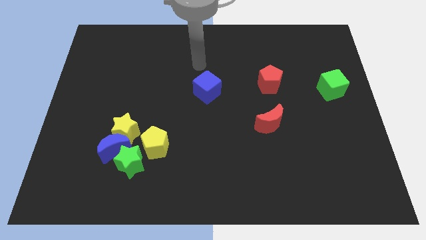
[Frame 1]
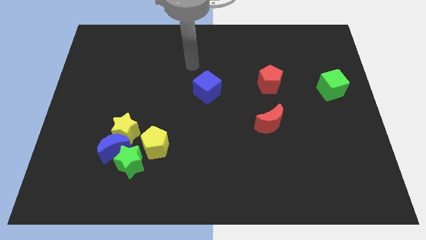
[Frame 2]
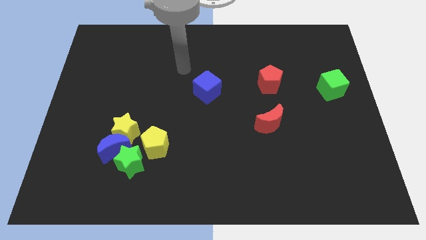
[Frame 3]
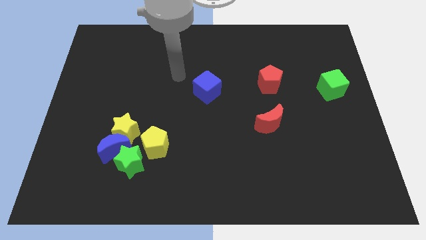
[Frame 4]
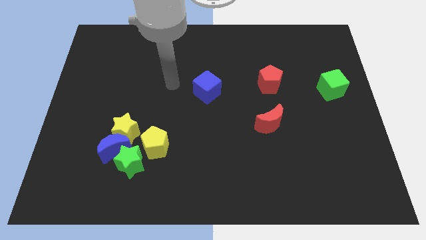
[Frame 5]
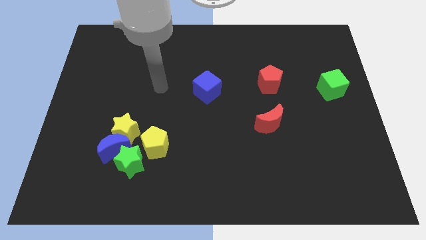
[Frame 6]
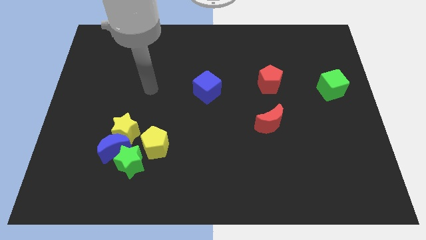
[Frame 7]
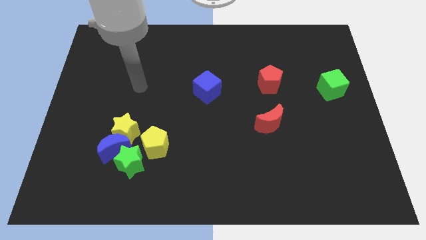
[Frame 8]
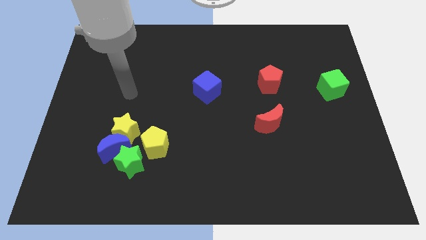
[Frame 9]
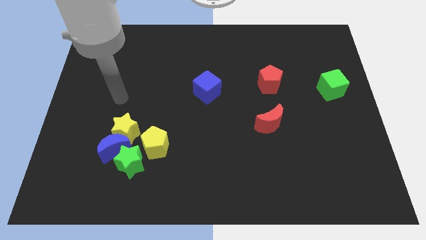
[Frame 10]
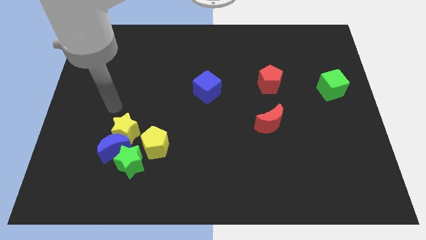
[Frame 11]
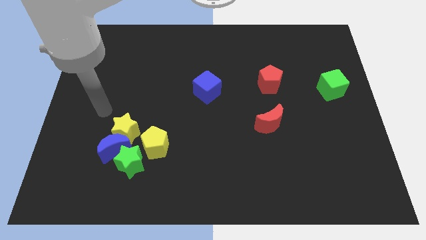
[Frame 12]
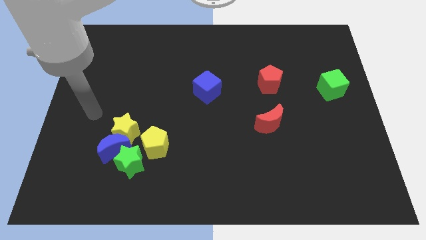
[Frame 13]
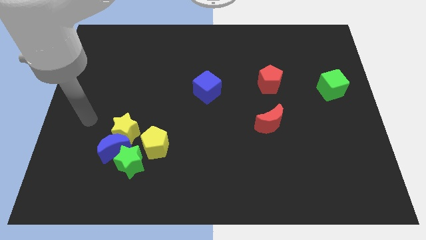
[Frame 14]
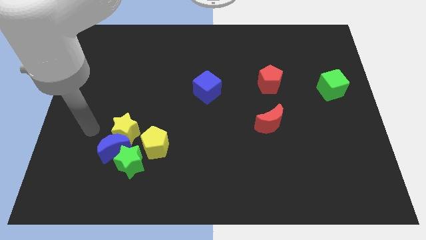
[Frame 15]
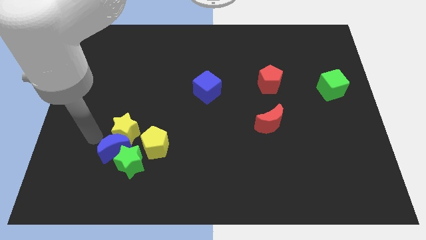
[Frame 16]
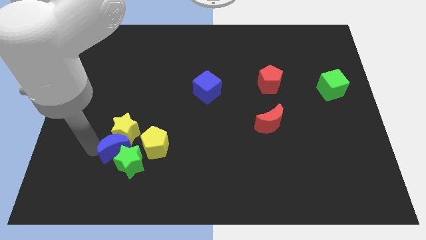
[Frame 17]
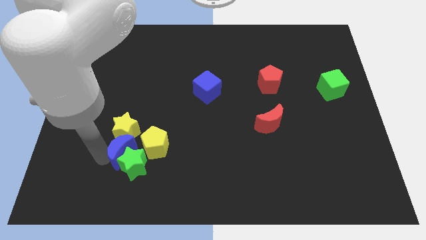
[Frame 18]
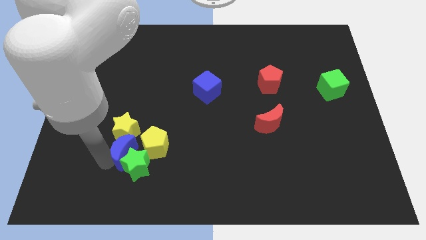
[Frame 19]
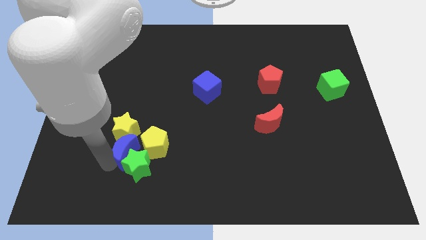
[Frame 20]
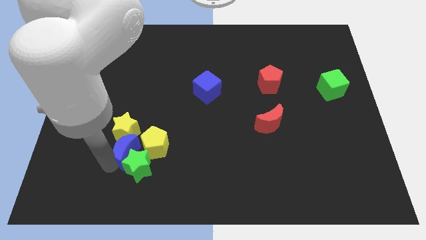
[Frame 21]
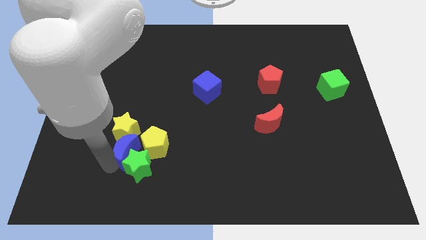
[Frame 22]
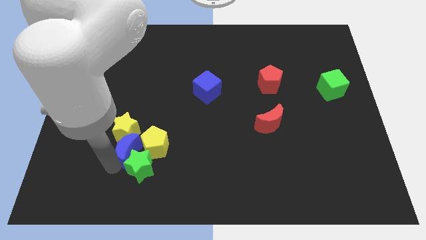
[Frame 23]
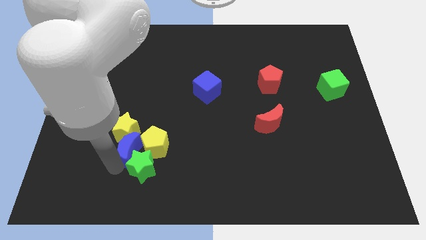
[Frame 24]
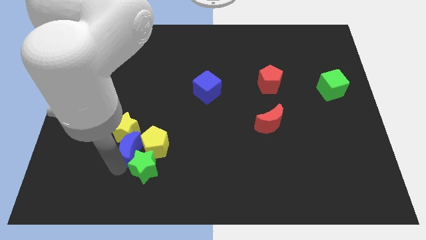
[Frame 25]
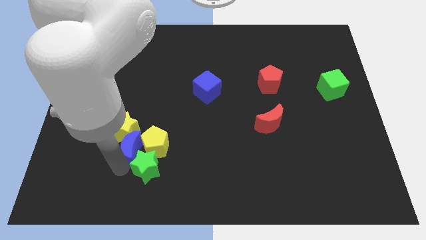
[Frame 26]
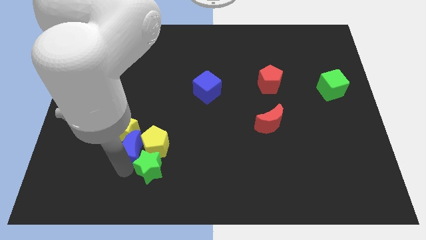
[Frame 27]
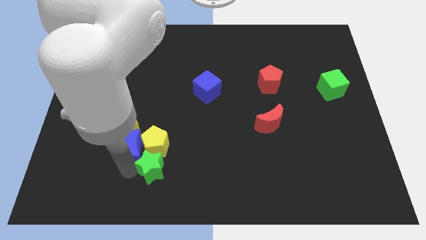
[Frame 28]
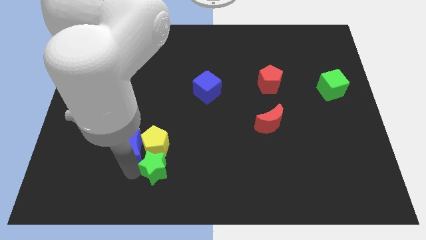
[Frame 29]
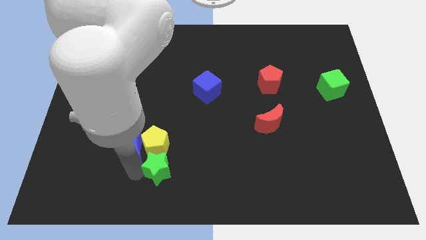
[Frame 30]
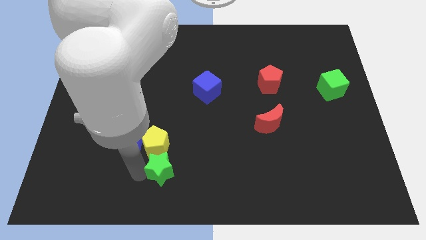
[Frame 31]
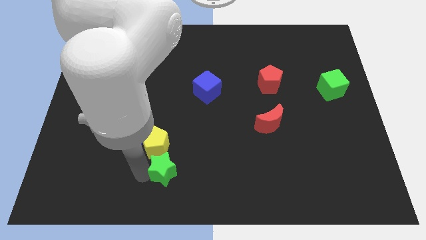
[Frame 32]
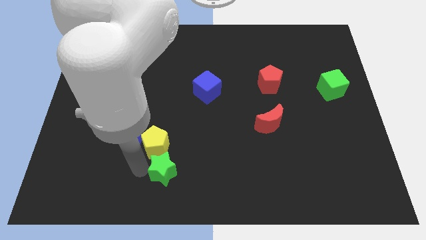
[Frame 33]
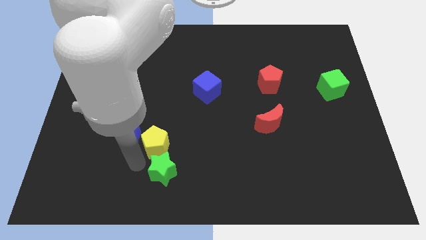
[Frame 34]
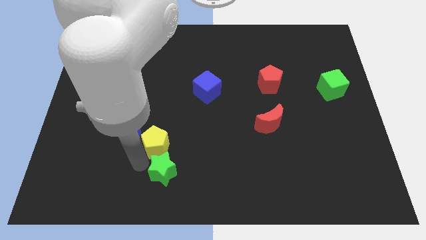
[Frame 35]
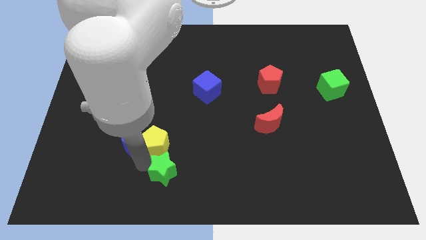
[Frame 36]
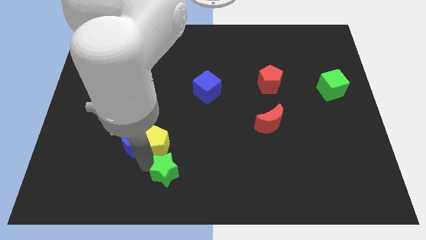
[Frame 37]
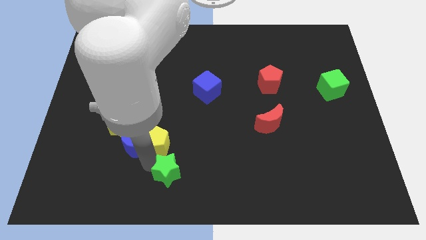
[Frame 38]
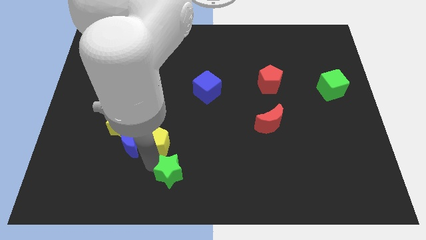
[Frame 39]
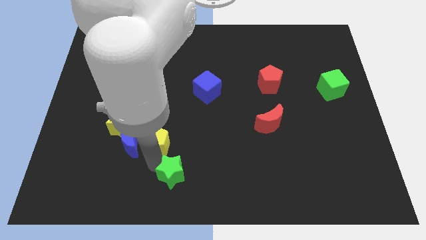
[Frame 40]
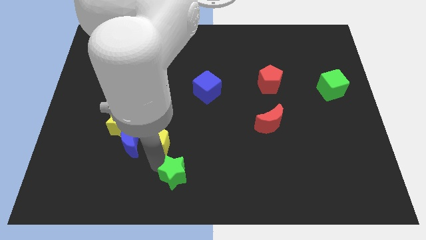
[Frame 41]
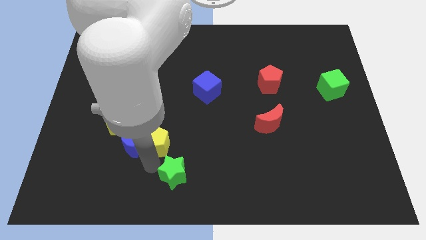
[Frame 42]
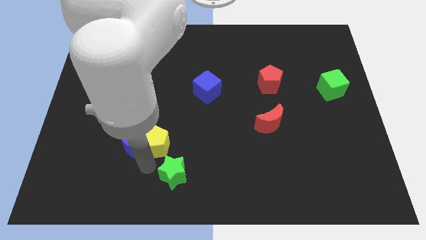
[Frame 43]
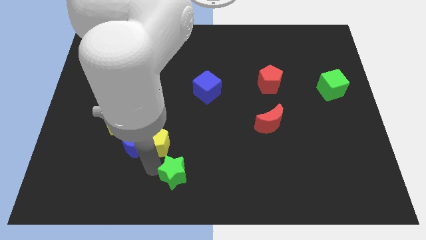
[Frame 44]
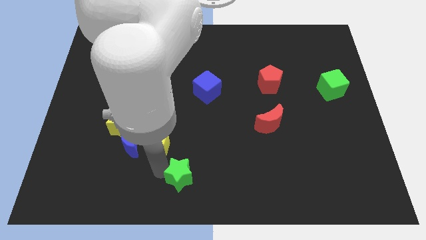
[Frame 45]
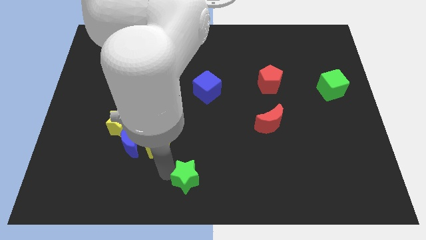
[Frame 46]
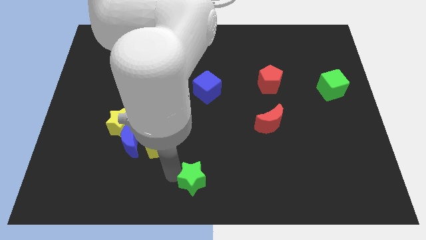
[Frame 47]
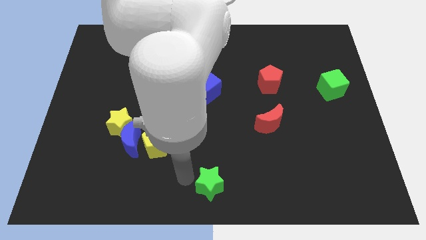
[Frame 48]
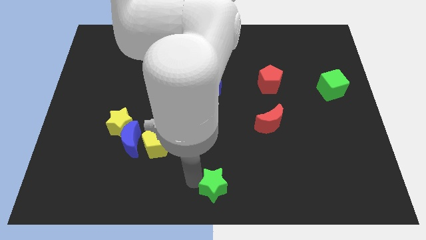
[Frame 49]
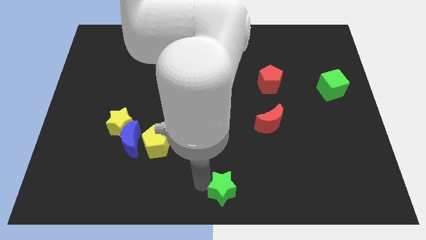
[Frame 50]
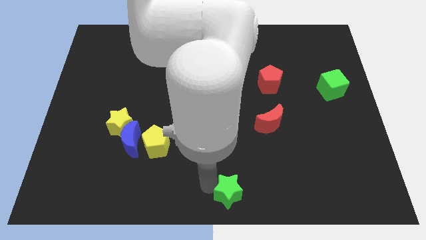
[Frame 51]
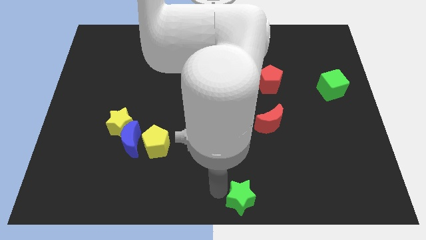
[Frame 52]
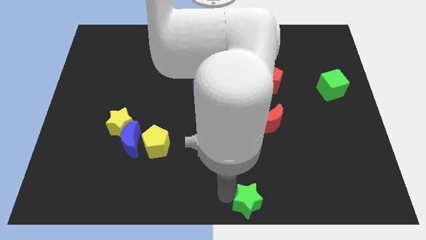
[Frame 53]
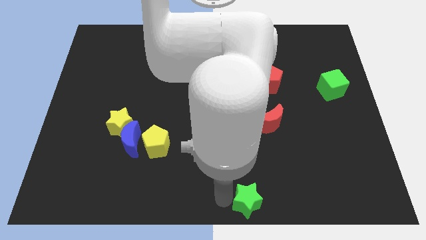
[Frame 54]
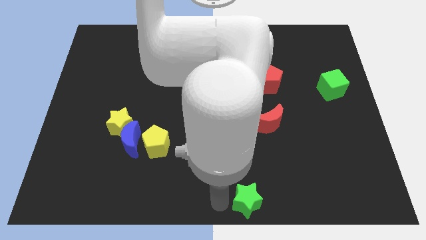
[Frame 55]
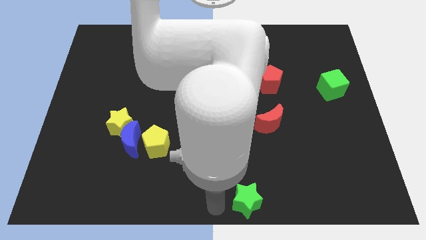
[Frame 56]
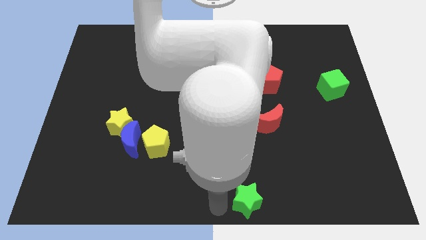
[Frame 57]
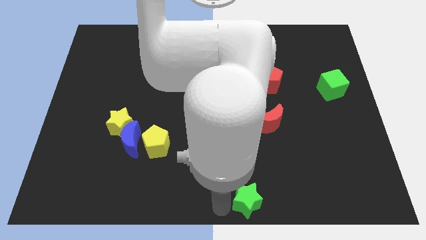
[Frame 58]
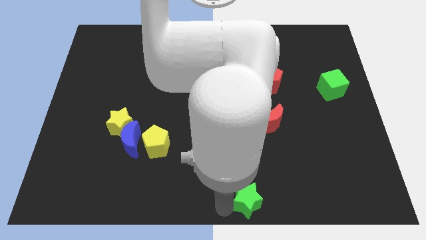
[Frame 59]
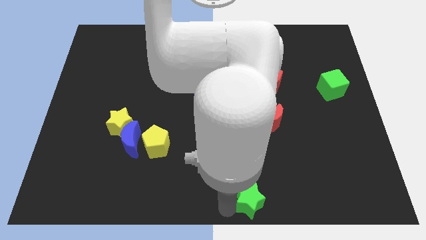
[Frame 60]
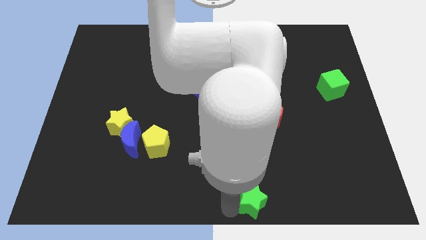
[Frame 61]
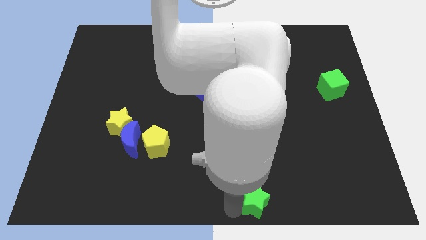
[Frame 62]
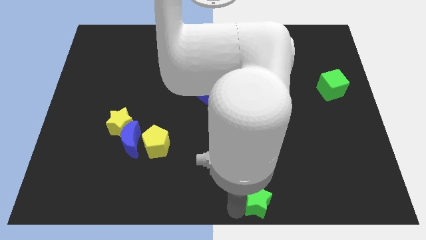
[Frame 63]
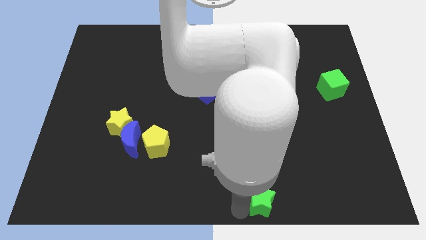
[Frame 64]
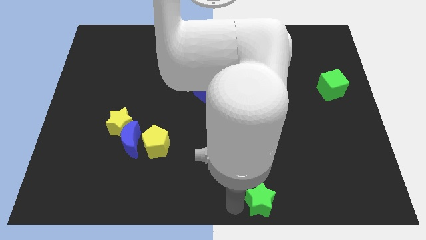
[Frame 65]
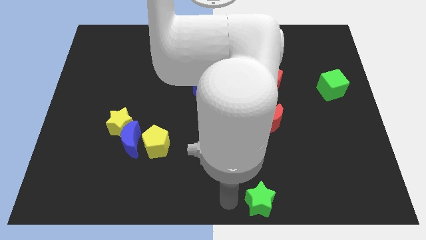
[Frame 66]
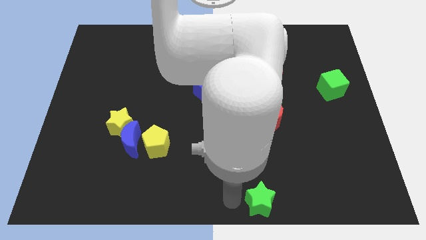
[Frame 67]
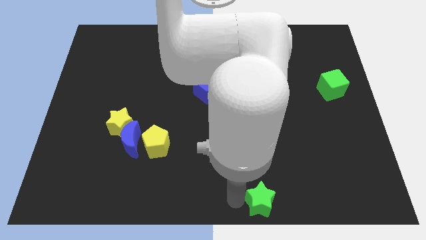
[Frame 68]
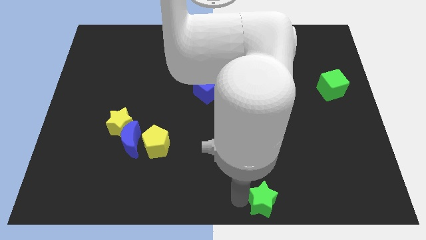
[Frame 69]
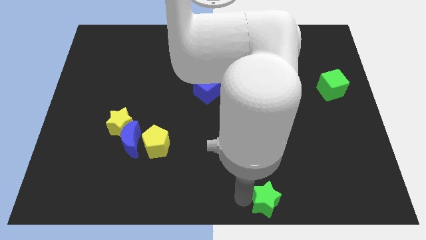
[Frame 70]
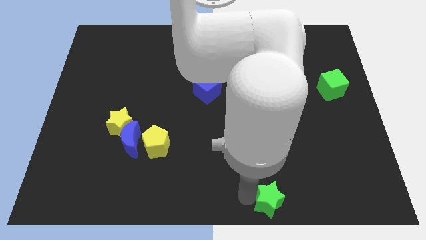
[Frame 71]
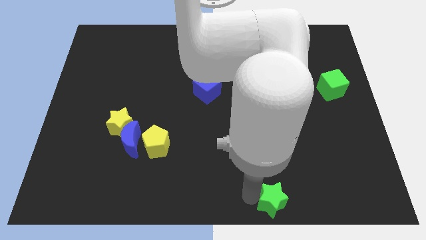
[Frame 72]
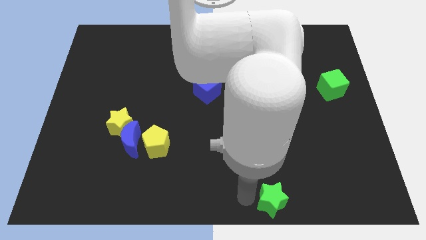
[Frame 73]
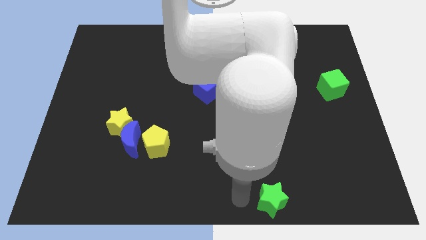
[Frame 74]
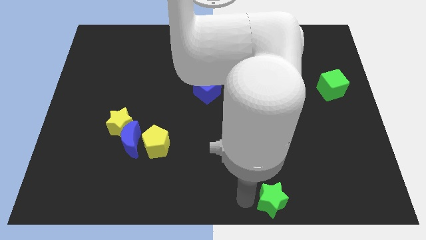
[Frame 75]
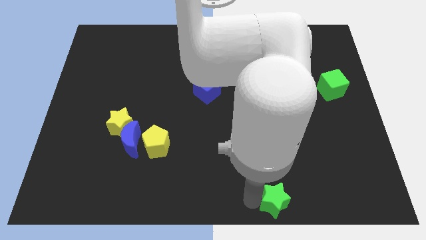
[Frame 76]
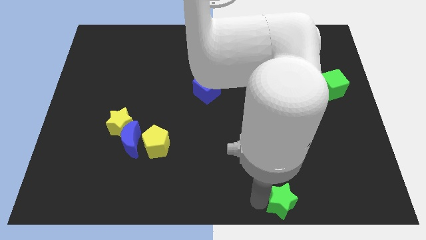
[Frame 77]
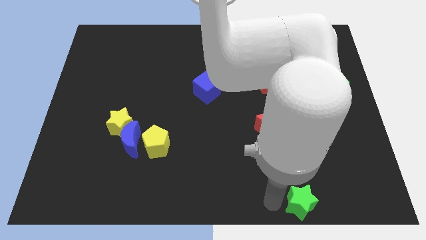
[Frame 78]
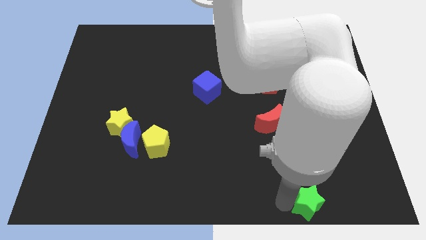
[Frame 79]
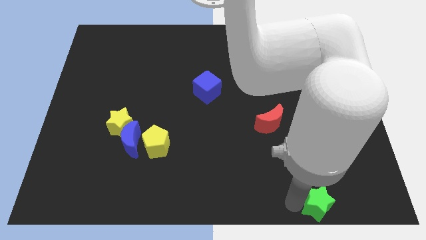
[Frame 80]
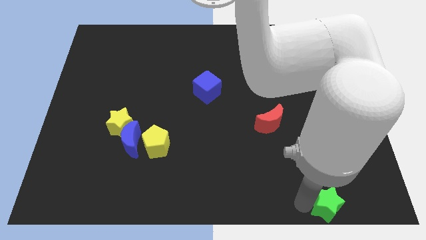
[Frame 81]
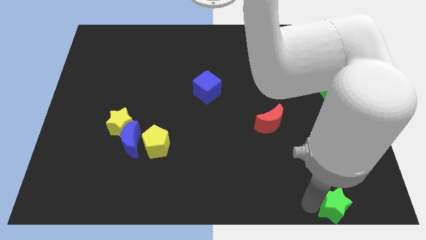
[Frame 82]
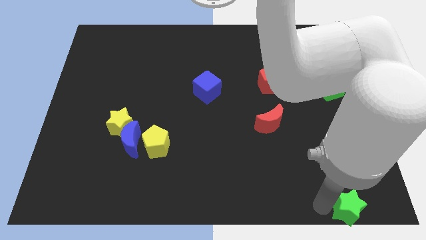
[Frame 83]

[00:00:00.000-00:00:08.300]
put the green star to the bottom right corner
